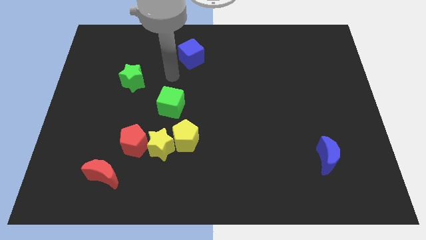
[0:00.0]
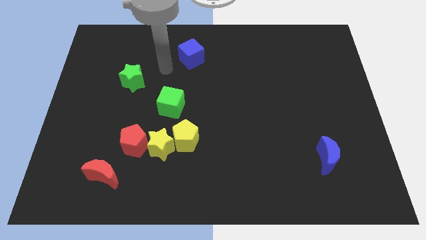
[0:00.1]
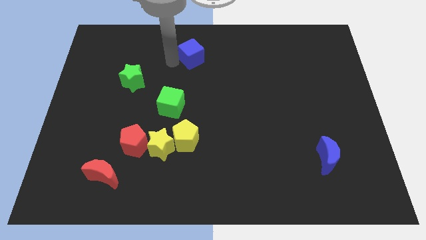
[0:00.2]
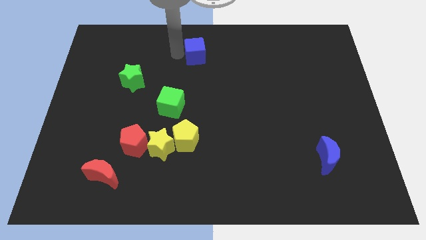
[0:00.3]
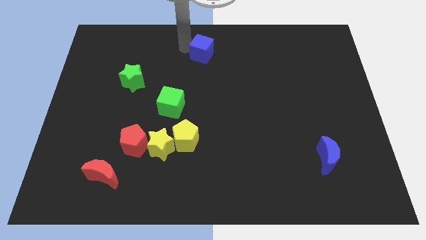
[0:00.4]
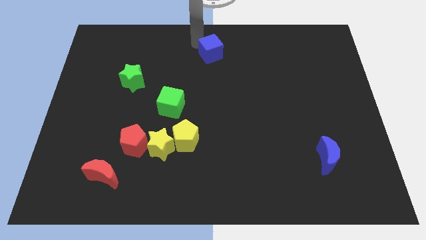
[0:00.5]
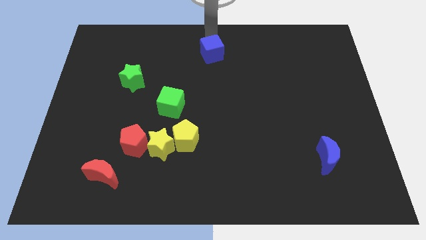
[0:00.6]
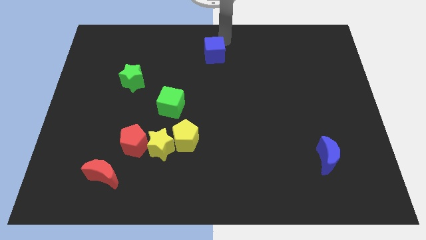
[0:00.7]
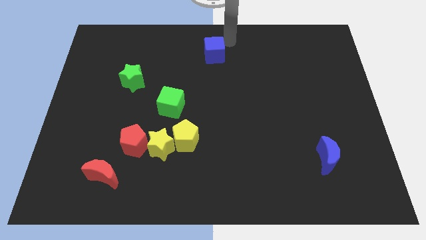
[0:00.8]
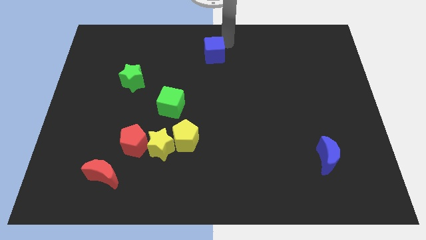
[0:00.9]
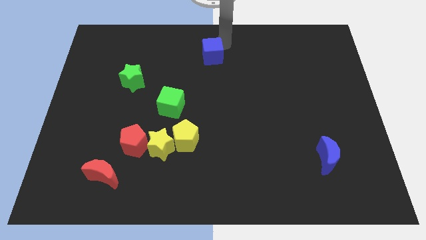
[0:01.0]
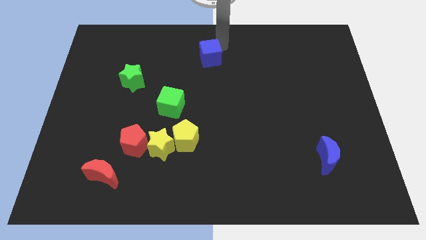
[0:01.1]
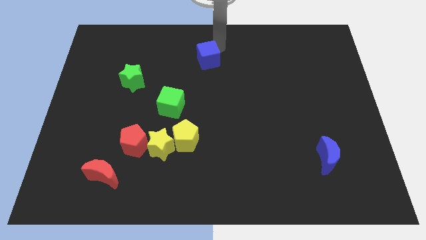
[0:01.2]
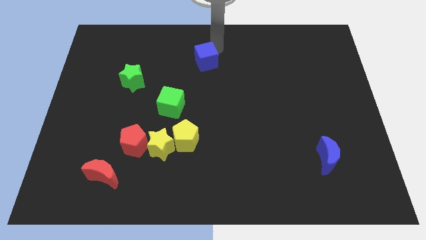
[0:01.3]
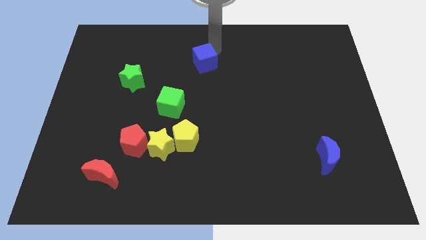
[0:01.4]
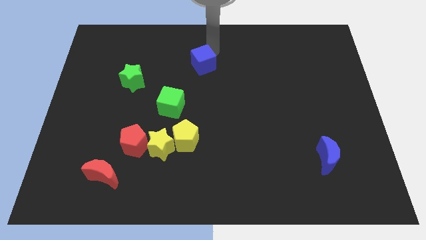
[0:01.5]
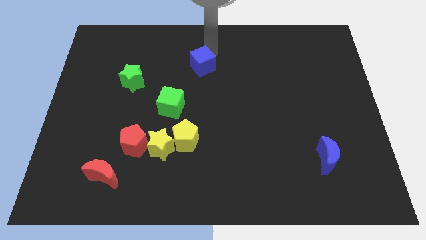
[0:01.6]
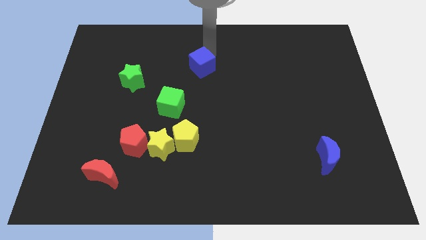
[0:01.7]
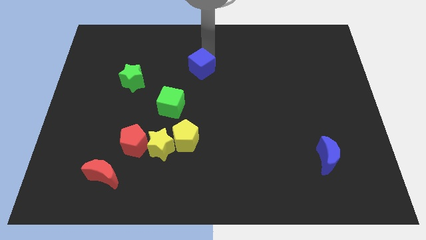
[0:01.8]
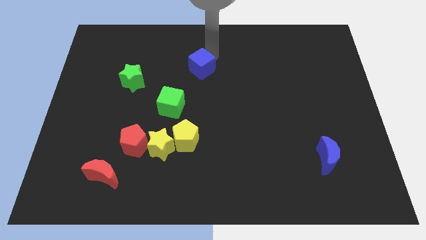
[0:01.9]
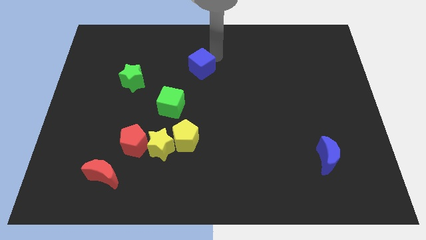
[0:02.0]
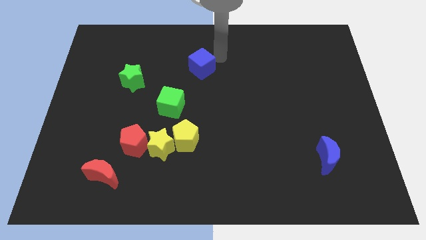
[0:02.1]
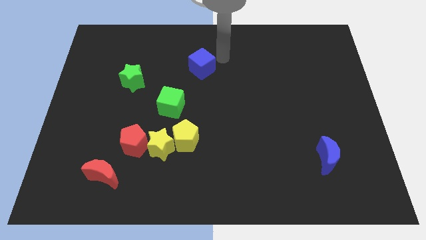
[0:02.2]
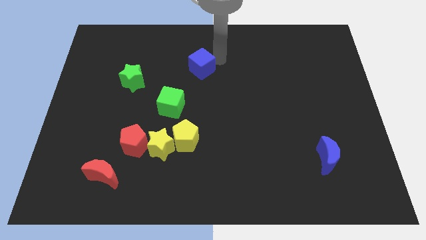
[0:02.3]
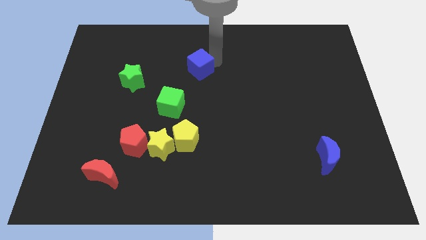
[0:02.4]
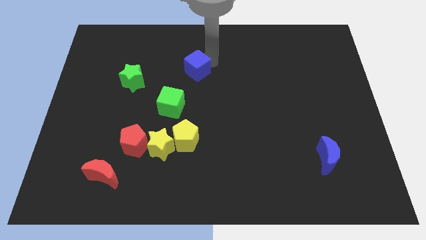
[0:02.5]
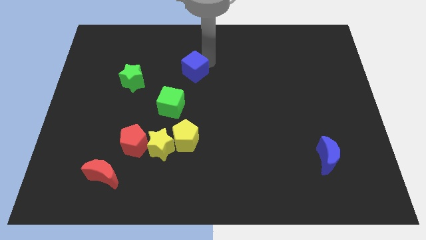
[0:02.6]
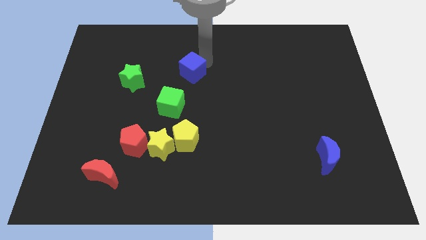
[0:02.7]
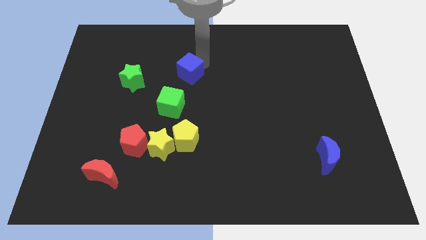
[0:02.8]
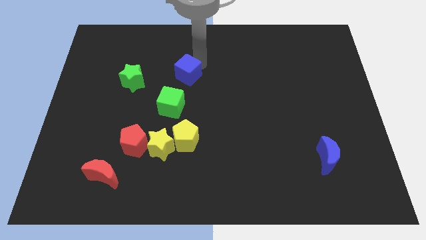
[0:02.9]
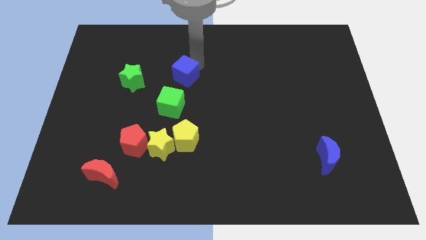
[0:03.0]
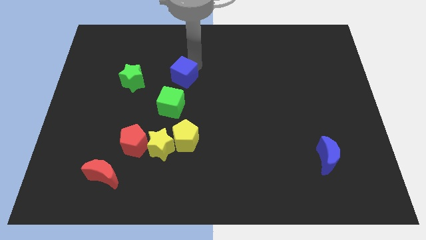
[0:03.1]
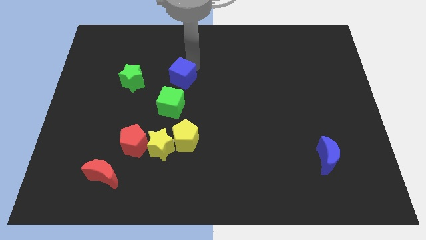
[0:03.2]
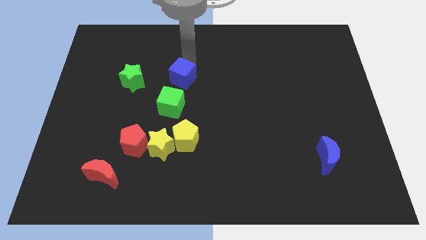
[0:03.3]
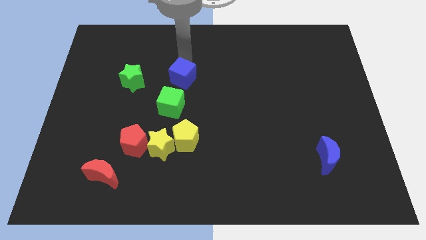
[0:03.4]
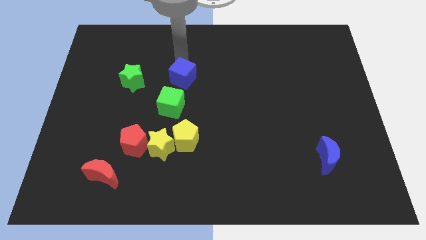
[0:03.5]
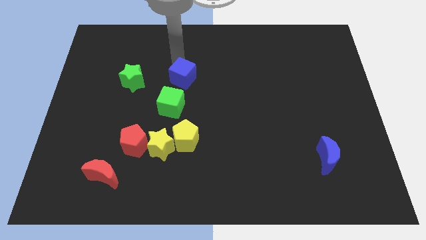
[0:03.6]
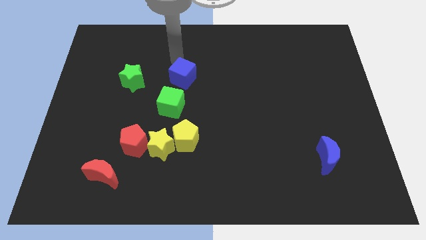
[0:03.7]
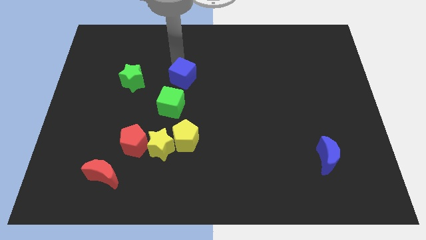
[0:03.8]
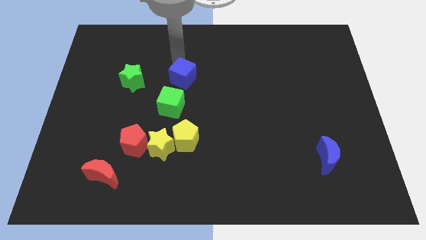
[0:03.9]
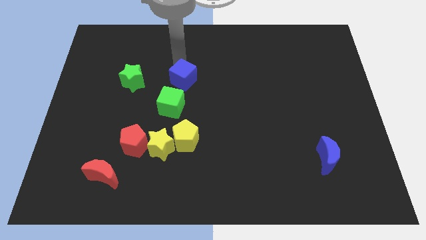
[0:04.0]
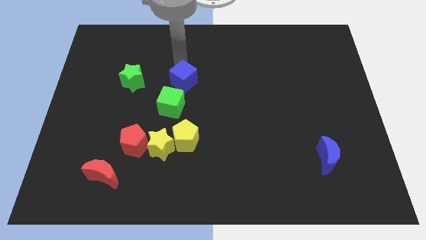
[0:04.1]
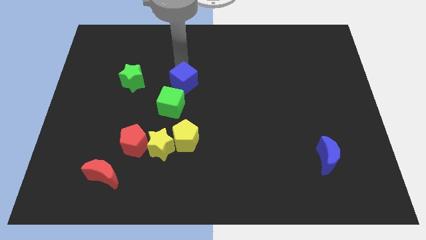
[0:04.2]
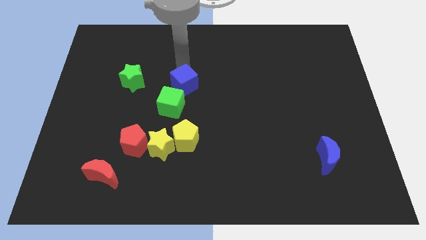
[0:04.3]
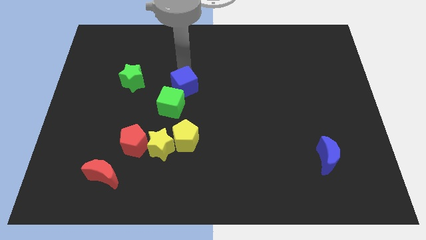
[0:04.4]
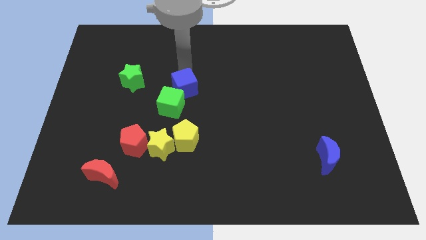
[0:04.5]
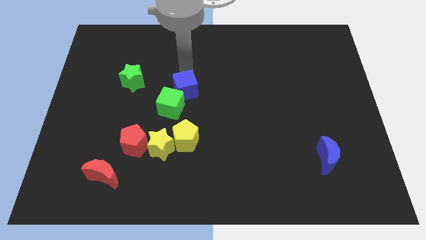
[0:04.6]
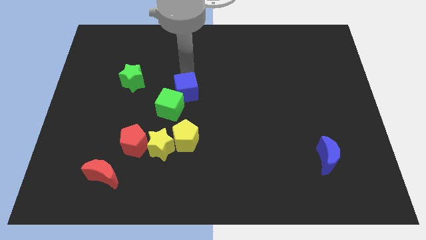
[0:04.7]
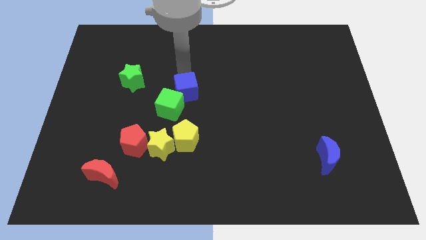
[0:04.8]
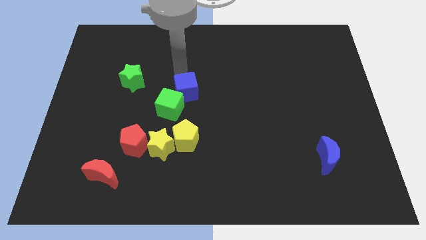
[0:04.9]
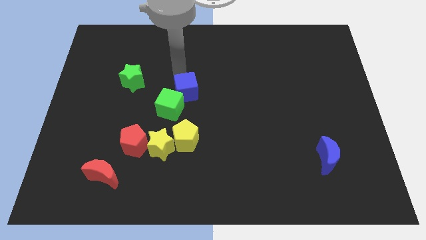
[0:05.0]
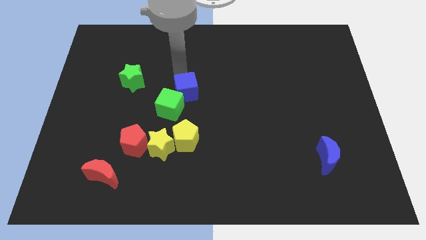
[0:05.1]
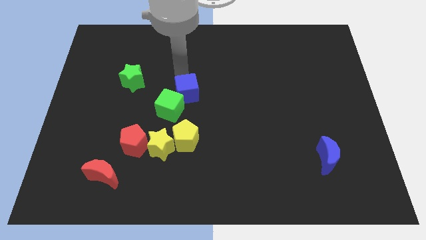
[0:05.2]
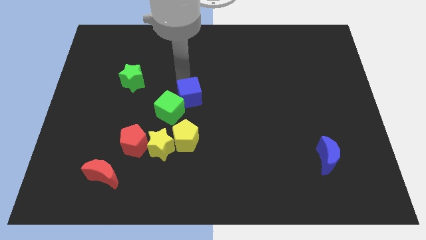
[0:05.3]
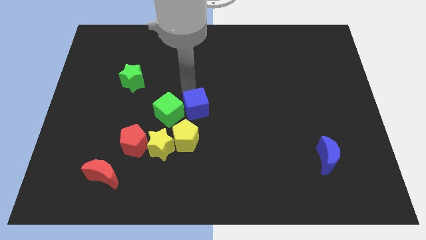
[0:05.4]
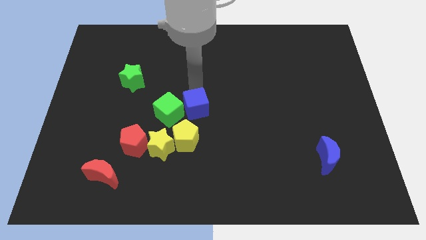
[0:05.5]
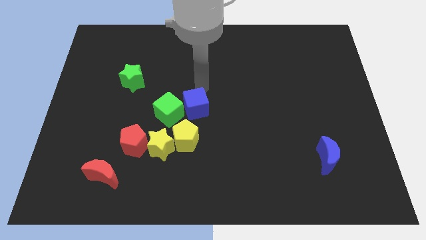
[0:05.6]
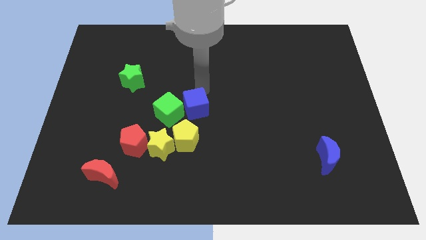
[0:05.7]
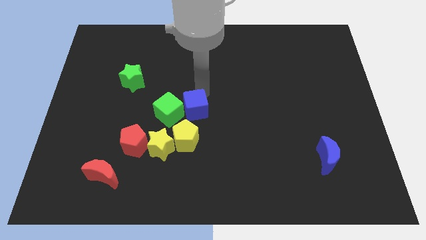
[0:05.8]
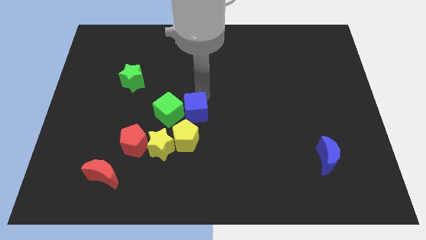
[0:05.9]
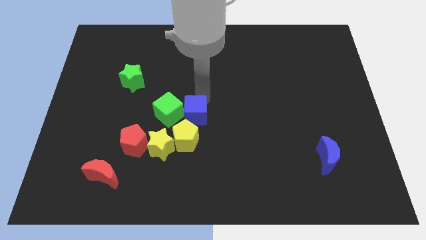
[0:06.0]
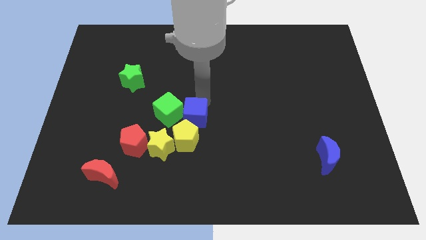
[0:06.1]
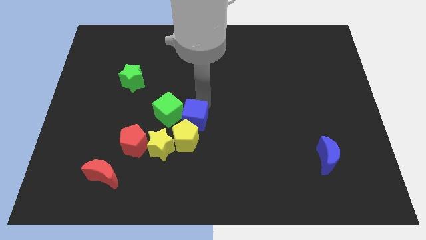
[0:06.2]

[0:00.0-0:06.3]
push the blue cube towards the yellow pentagon

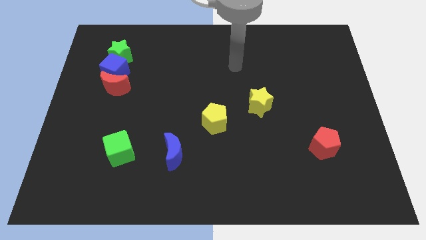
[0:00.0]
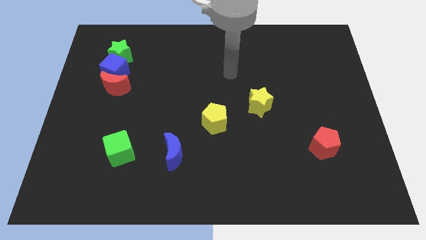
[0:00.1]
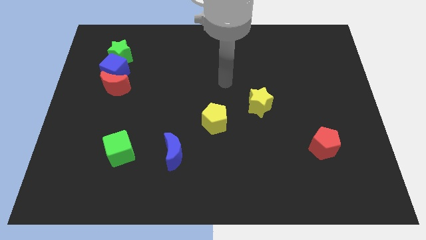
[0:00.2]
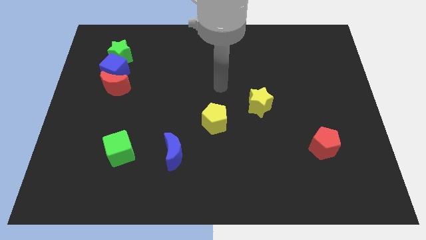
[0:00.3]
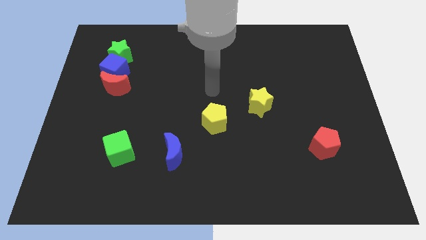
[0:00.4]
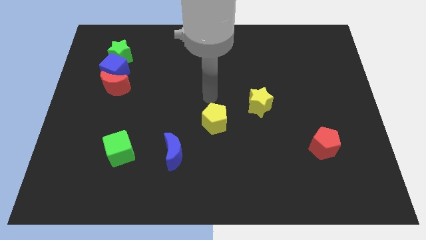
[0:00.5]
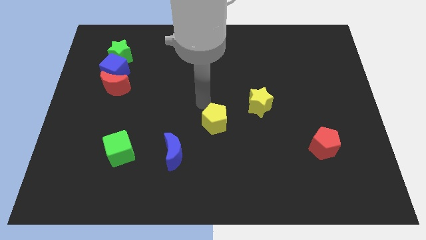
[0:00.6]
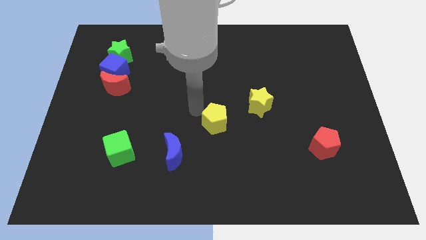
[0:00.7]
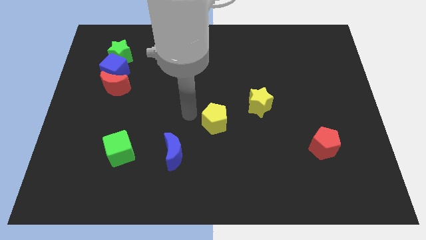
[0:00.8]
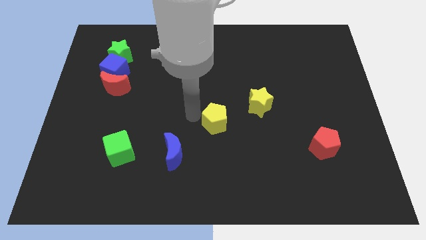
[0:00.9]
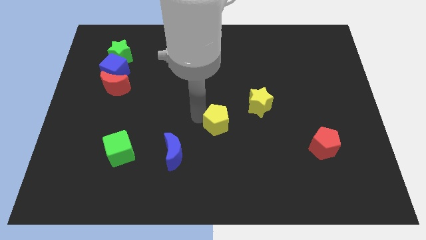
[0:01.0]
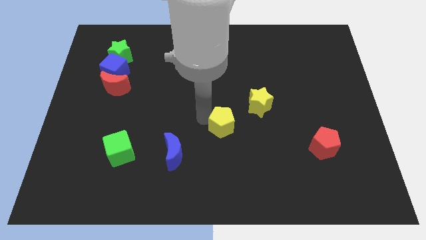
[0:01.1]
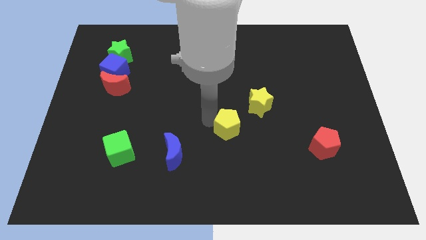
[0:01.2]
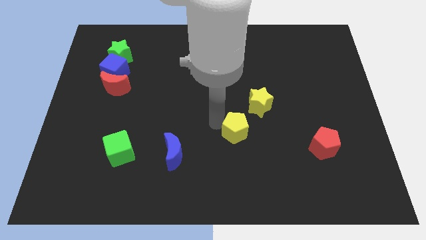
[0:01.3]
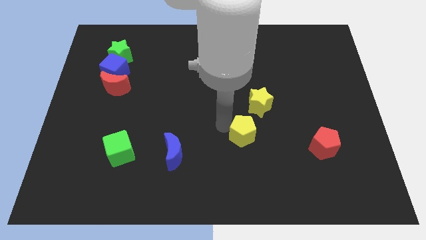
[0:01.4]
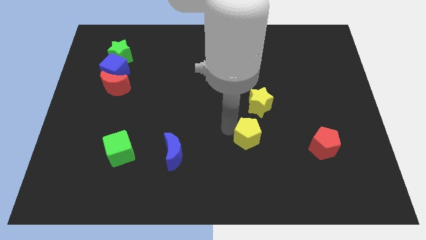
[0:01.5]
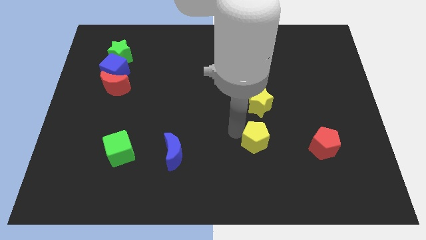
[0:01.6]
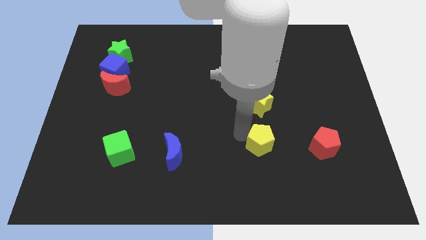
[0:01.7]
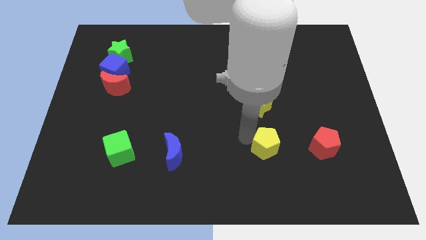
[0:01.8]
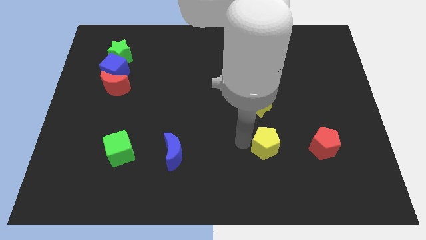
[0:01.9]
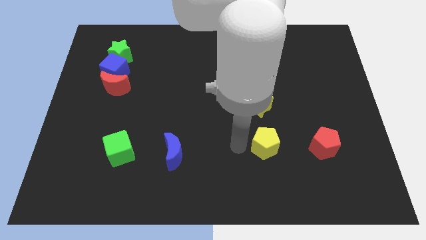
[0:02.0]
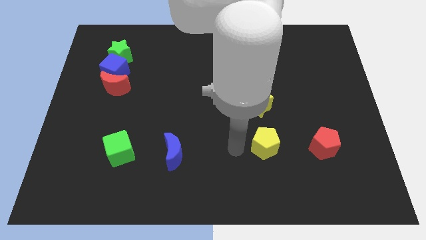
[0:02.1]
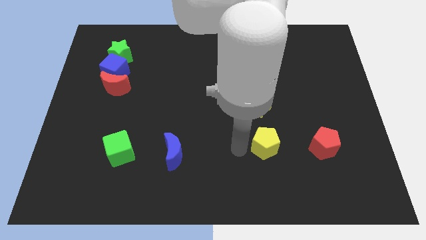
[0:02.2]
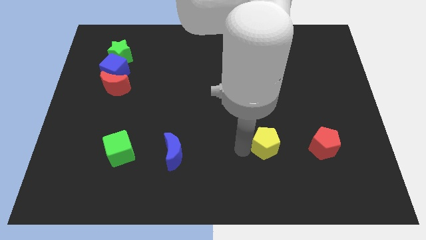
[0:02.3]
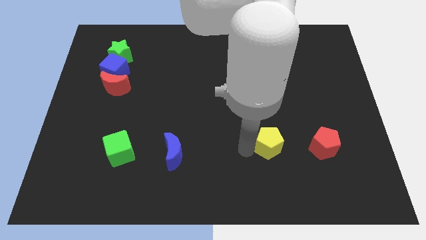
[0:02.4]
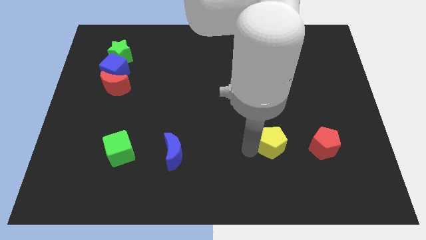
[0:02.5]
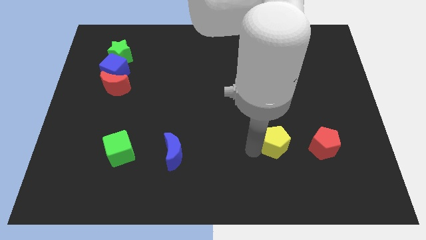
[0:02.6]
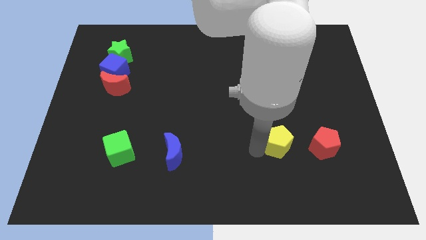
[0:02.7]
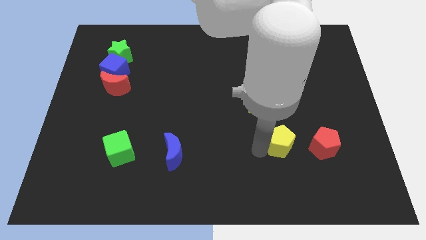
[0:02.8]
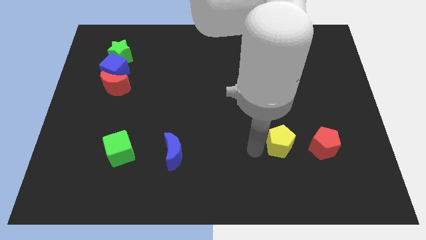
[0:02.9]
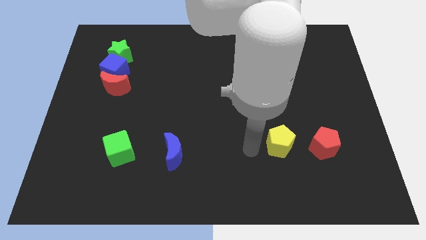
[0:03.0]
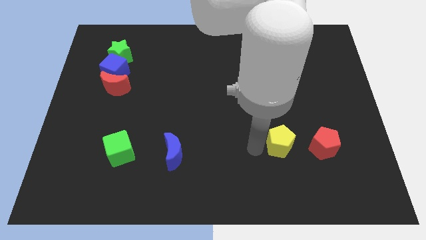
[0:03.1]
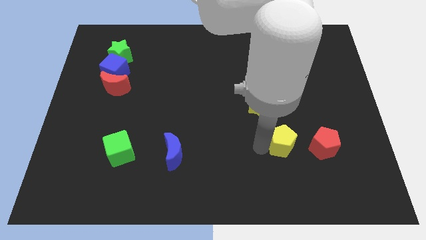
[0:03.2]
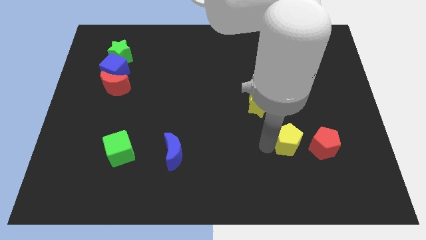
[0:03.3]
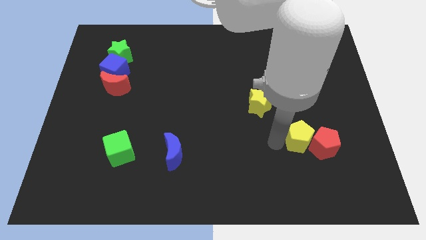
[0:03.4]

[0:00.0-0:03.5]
put the yellow pentagon to the red pentagon
